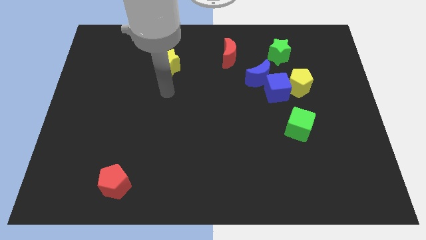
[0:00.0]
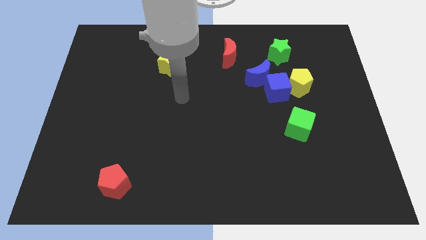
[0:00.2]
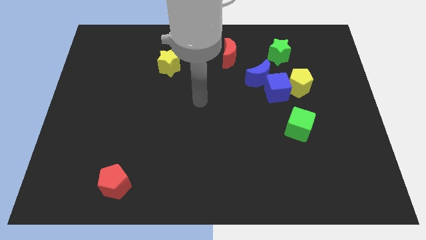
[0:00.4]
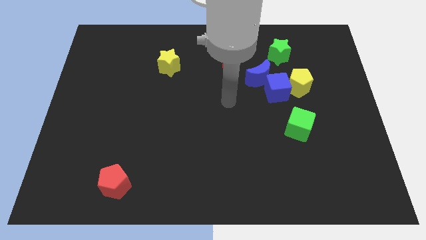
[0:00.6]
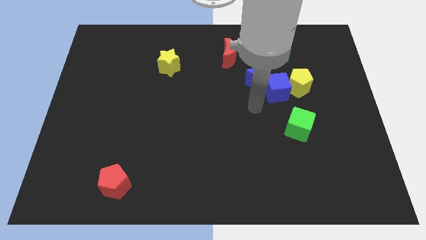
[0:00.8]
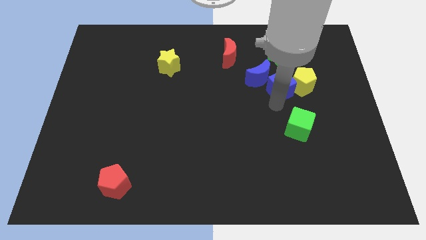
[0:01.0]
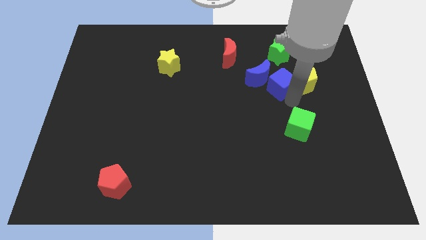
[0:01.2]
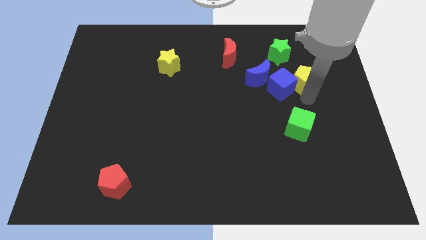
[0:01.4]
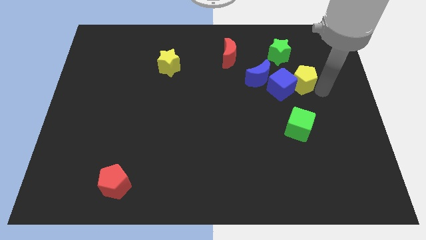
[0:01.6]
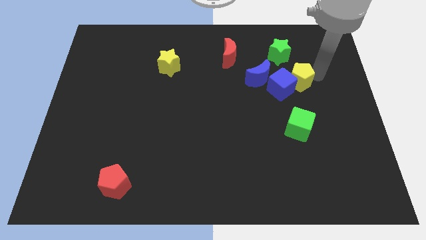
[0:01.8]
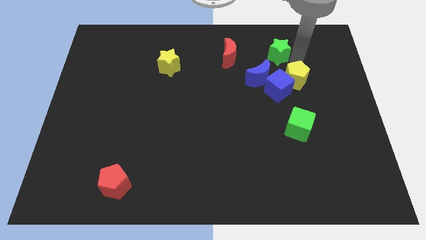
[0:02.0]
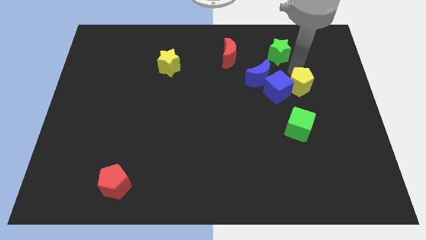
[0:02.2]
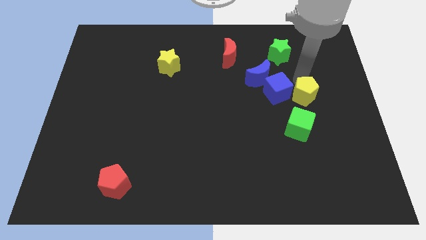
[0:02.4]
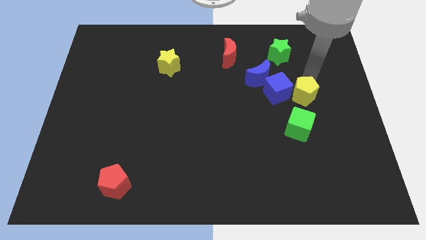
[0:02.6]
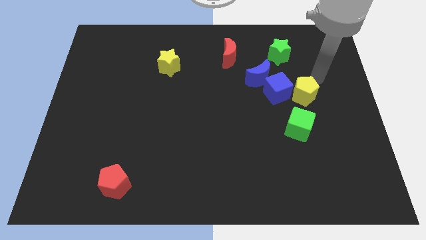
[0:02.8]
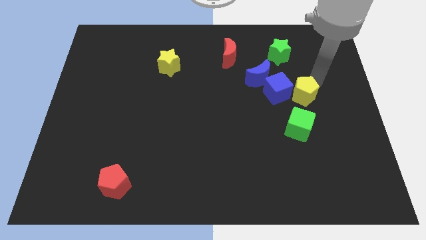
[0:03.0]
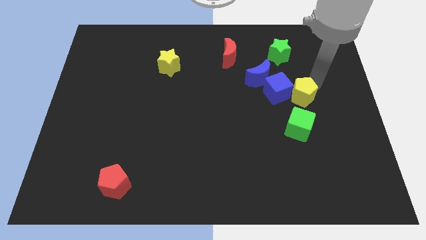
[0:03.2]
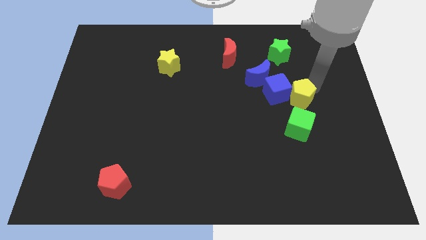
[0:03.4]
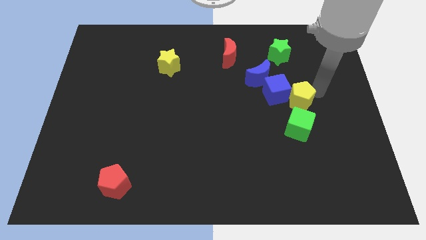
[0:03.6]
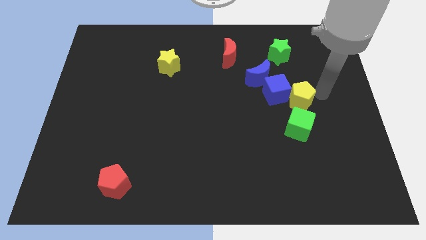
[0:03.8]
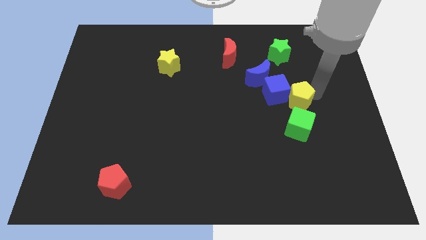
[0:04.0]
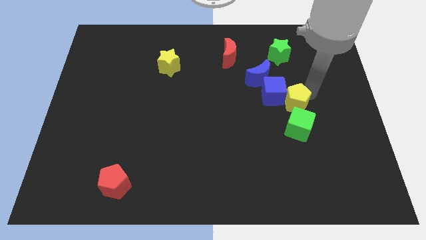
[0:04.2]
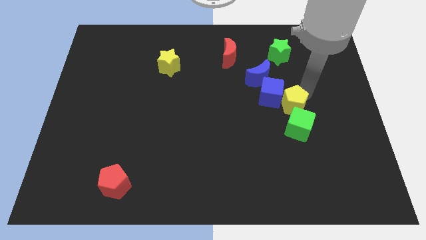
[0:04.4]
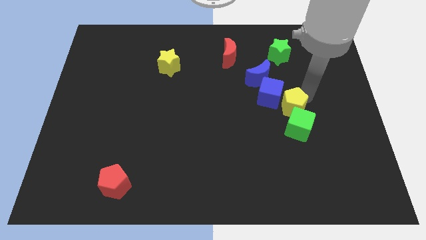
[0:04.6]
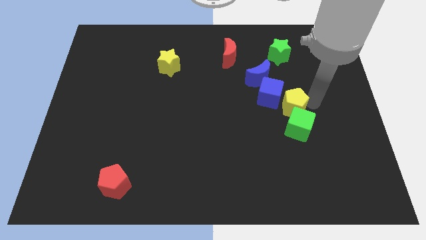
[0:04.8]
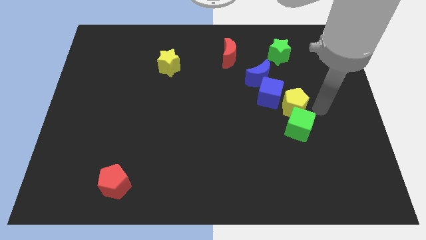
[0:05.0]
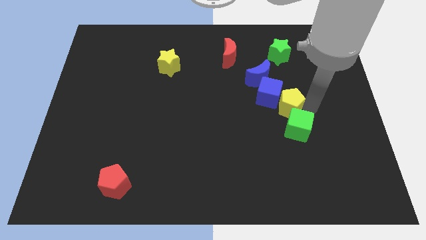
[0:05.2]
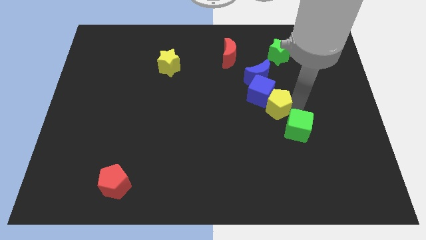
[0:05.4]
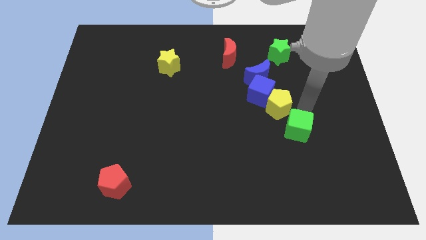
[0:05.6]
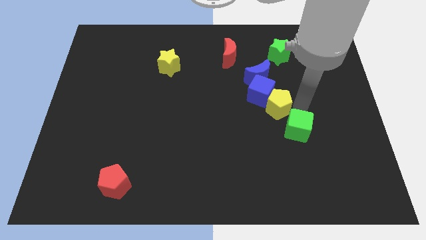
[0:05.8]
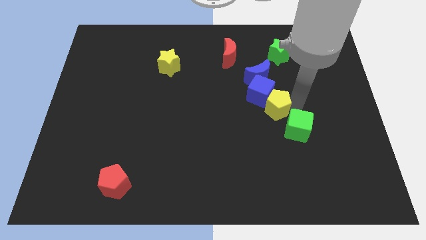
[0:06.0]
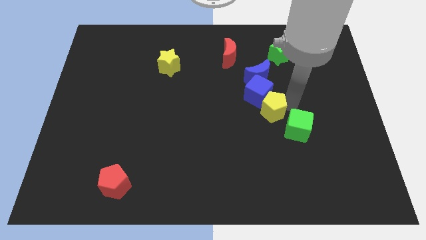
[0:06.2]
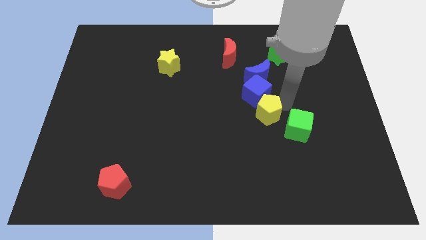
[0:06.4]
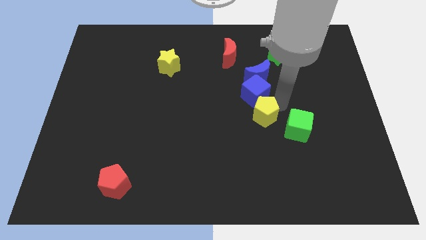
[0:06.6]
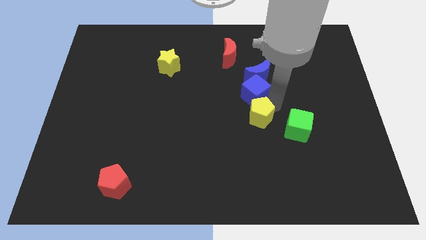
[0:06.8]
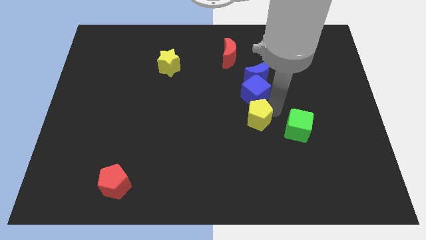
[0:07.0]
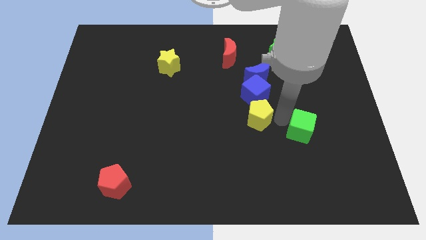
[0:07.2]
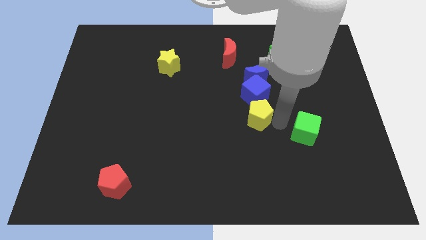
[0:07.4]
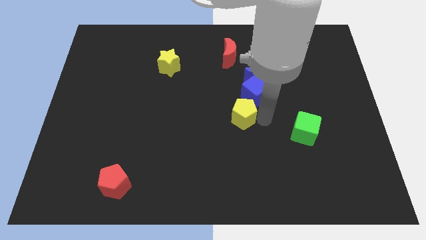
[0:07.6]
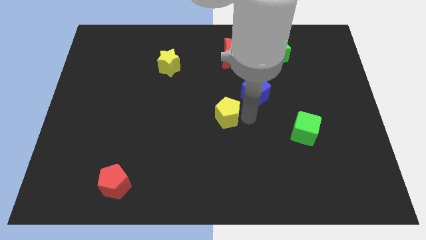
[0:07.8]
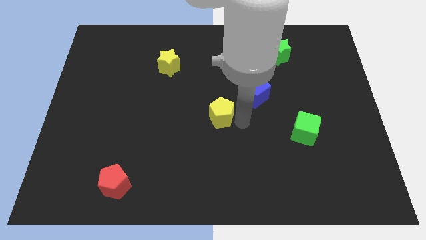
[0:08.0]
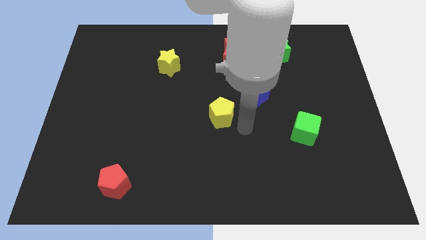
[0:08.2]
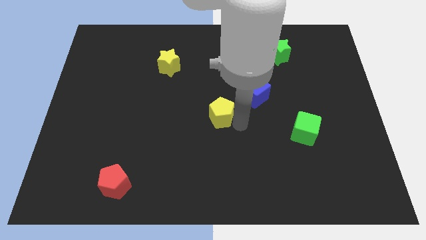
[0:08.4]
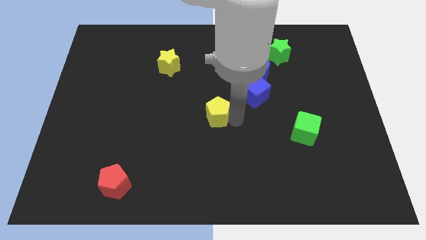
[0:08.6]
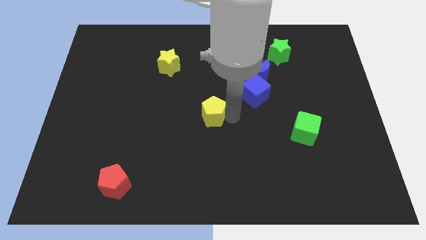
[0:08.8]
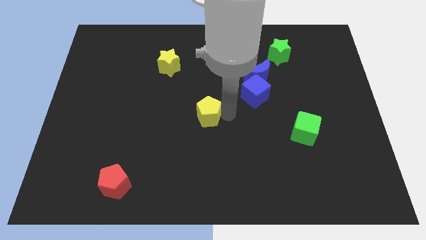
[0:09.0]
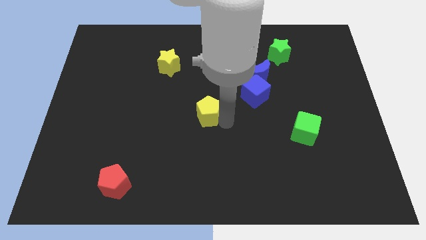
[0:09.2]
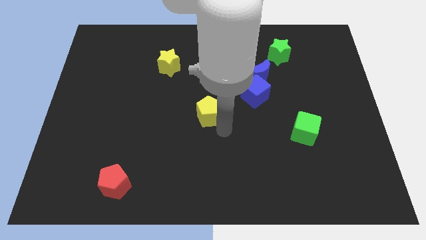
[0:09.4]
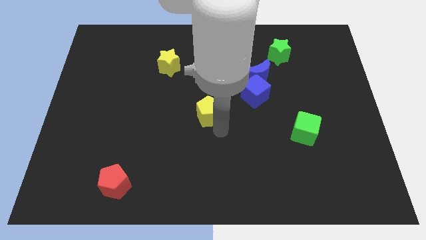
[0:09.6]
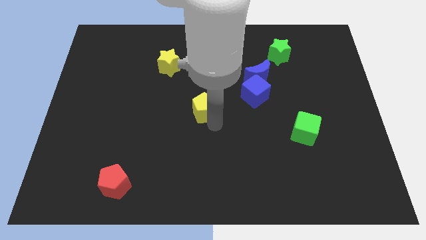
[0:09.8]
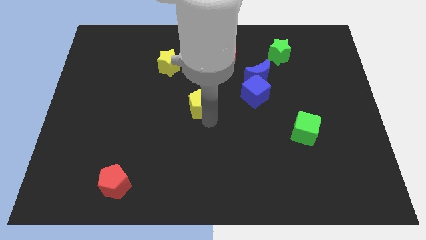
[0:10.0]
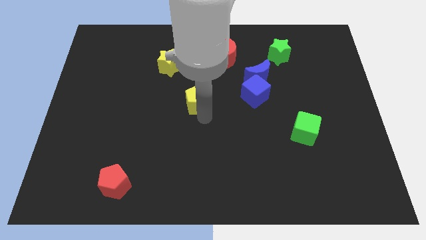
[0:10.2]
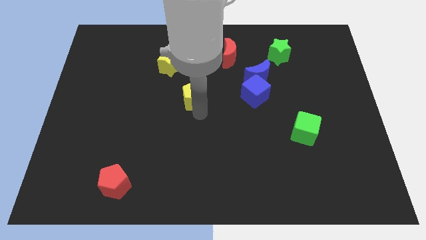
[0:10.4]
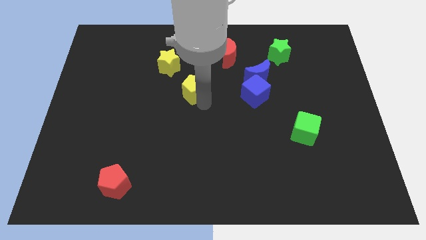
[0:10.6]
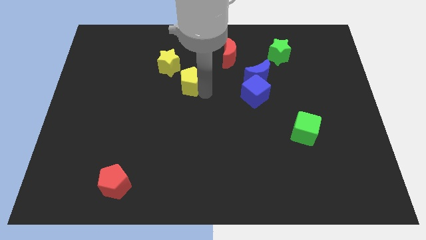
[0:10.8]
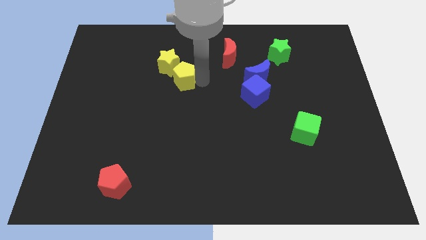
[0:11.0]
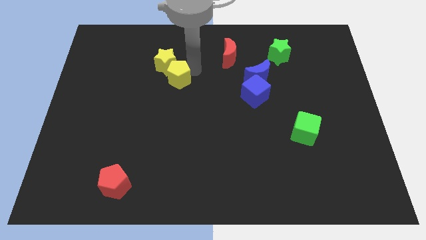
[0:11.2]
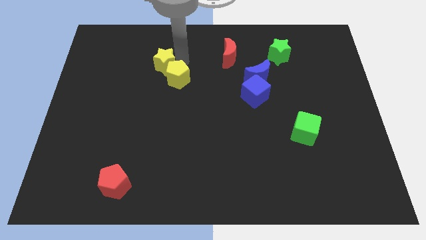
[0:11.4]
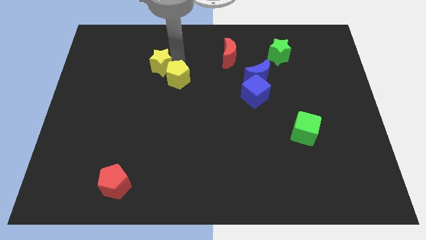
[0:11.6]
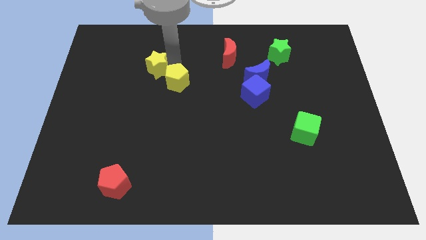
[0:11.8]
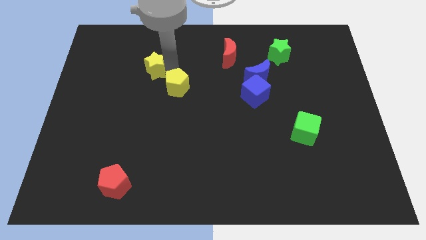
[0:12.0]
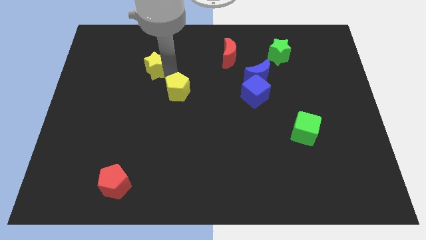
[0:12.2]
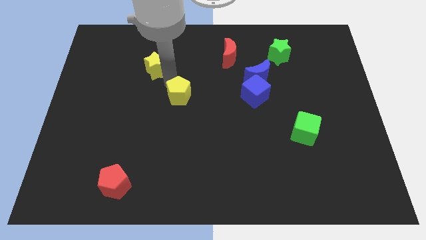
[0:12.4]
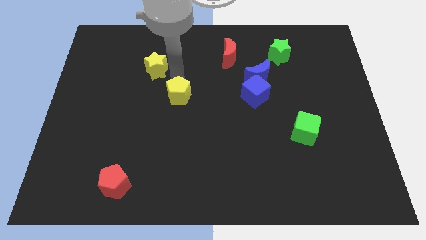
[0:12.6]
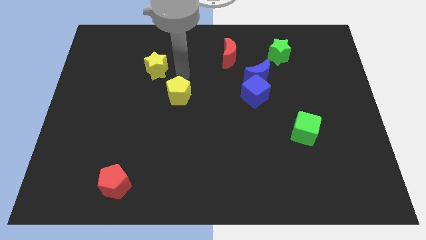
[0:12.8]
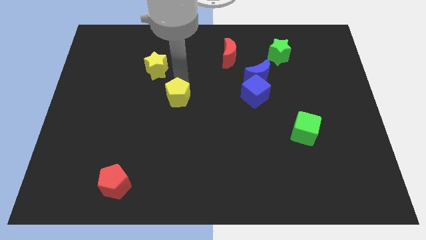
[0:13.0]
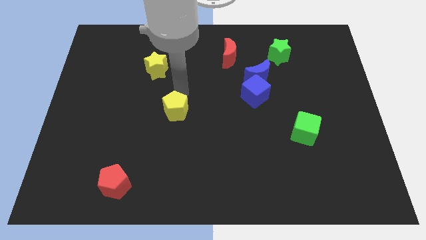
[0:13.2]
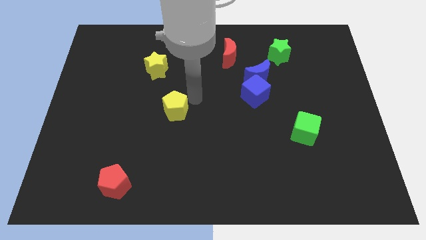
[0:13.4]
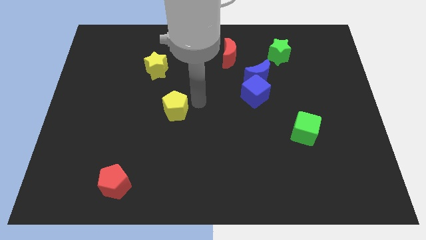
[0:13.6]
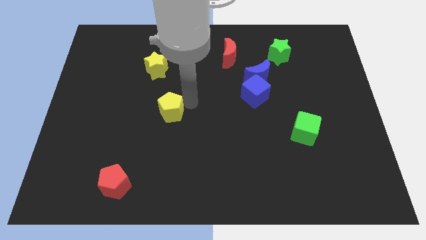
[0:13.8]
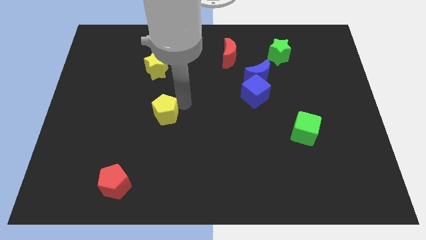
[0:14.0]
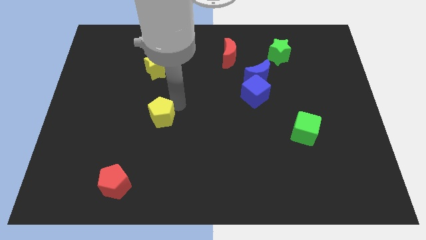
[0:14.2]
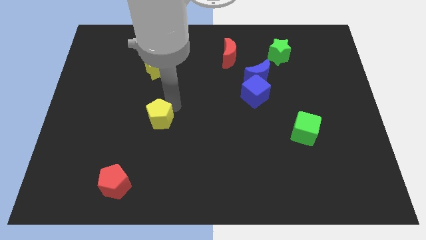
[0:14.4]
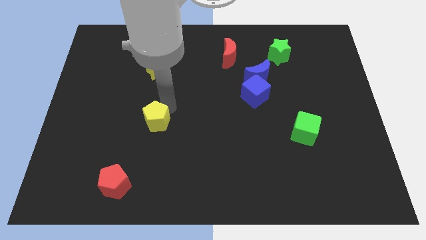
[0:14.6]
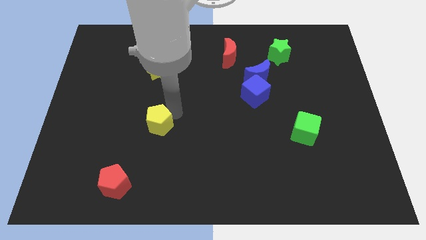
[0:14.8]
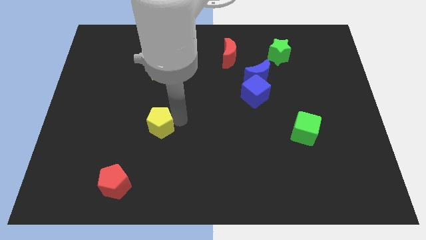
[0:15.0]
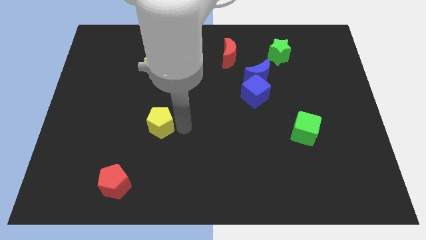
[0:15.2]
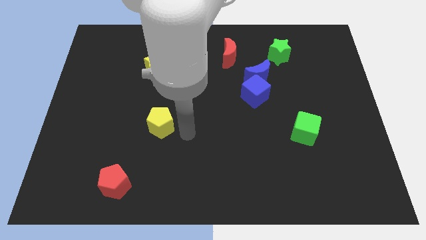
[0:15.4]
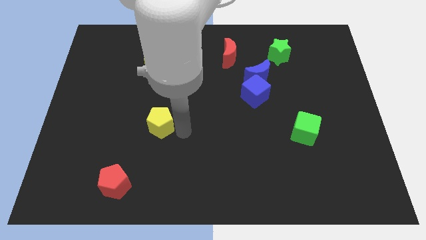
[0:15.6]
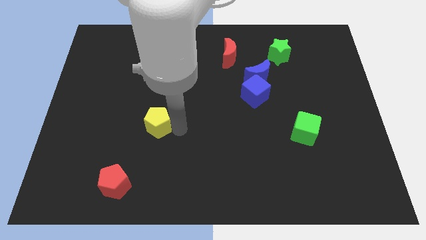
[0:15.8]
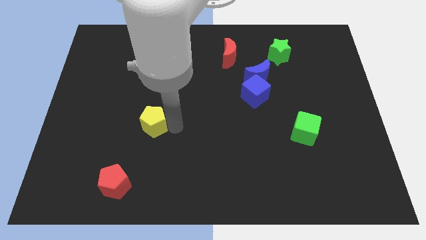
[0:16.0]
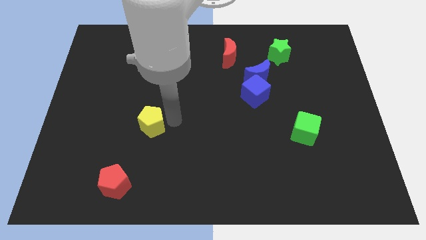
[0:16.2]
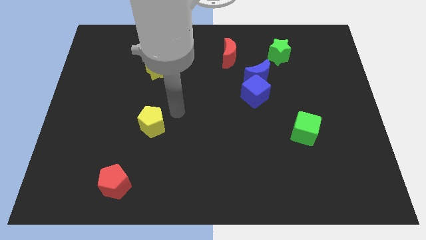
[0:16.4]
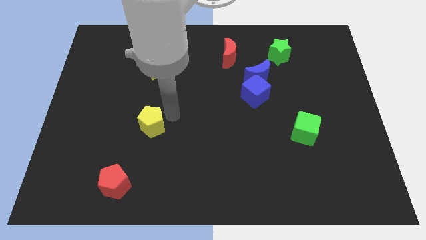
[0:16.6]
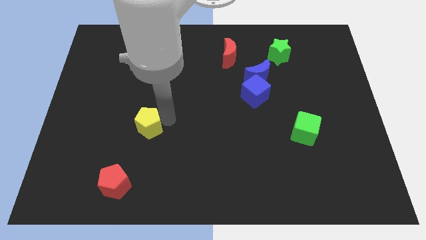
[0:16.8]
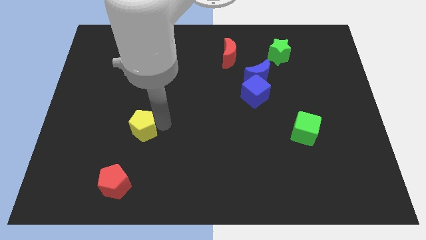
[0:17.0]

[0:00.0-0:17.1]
move the yellow pentagon to the top of the red pentagon
